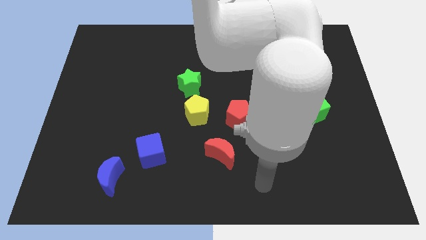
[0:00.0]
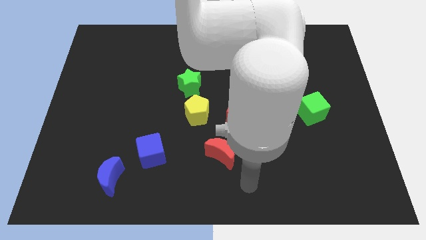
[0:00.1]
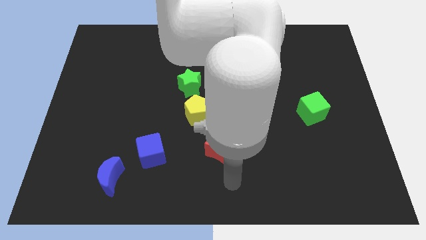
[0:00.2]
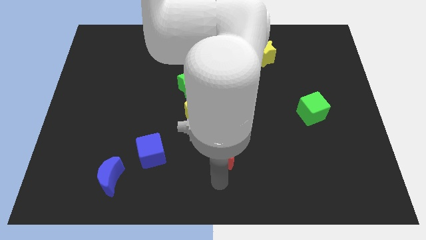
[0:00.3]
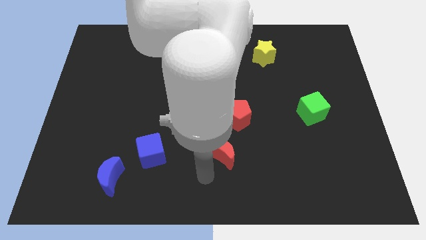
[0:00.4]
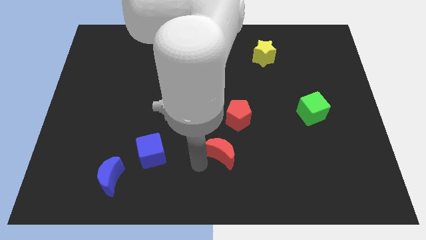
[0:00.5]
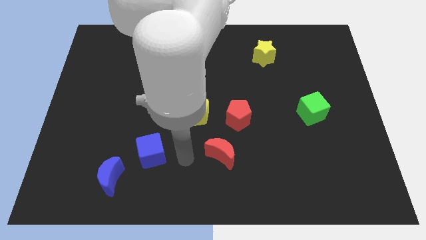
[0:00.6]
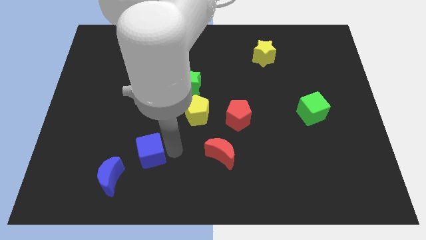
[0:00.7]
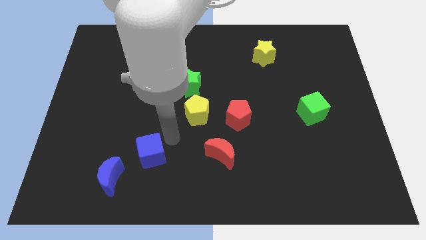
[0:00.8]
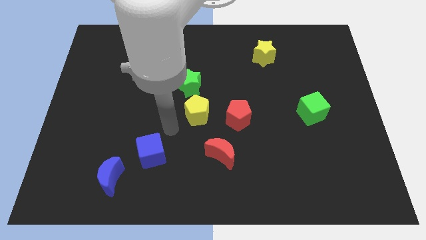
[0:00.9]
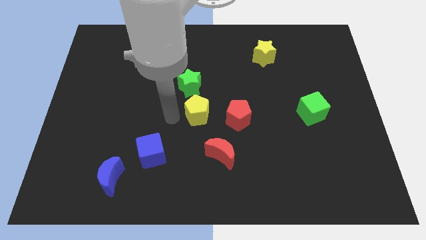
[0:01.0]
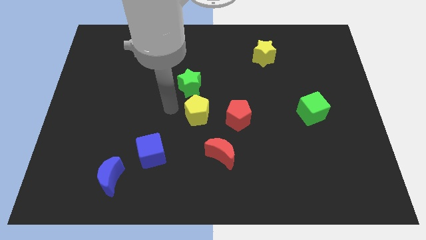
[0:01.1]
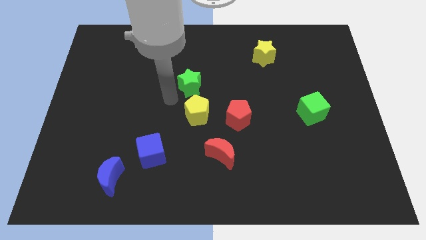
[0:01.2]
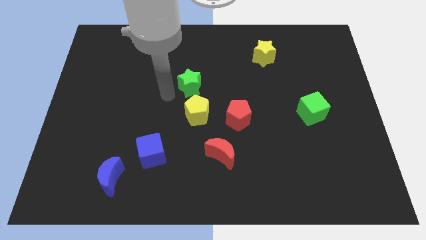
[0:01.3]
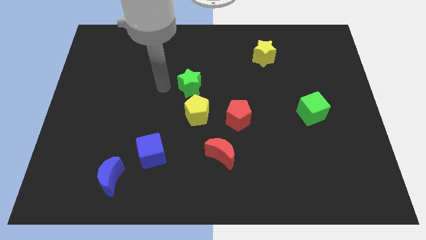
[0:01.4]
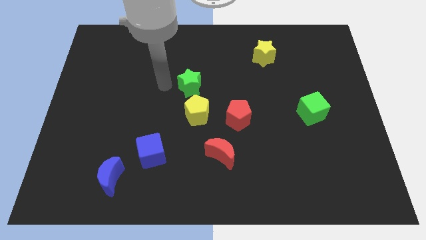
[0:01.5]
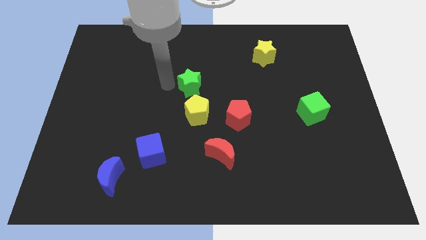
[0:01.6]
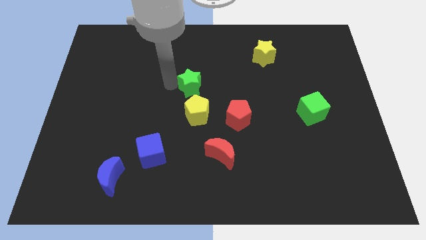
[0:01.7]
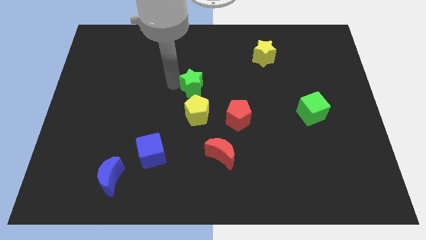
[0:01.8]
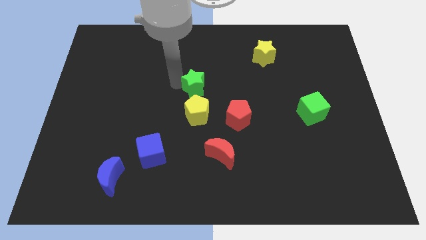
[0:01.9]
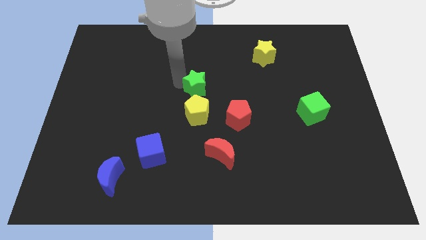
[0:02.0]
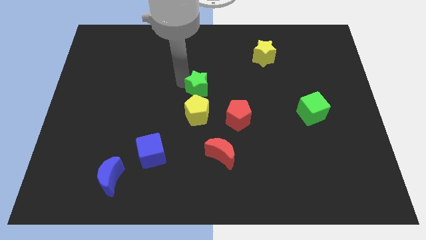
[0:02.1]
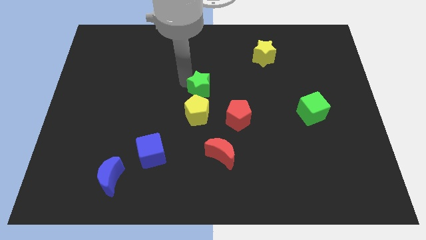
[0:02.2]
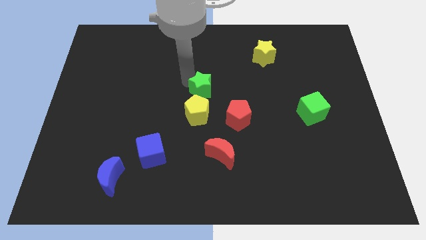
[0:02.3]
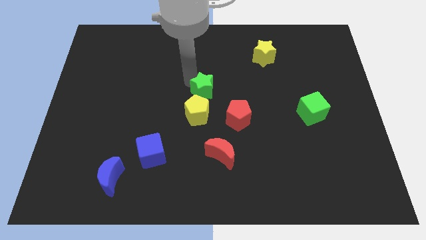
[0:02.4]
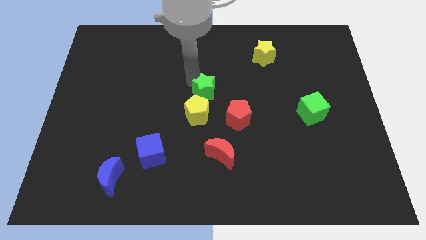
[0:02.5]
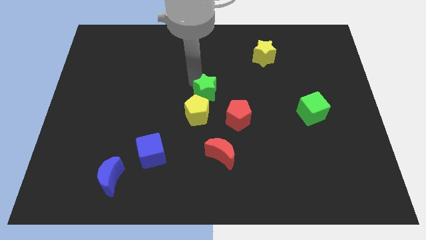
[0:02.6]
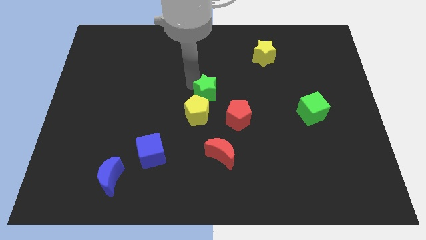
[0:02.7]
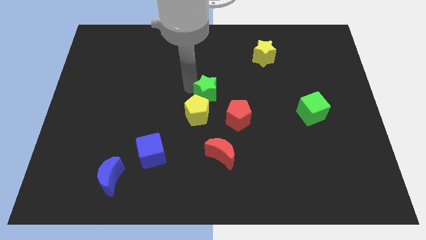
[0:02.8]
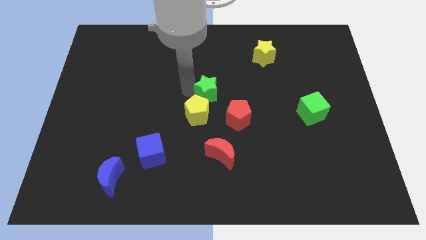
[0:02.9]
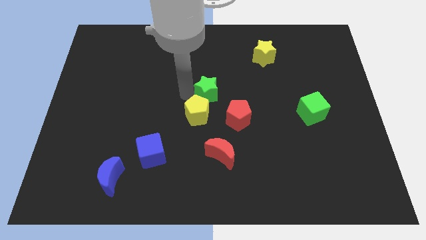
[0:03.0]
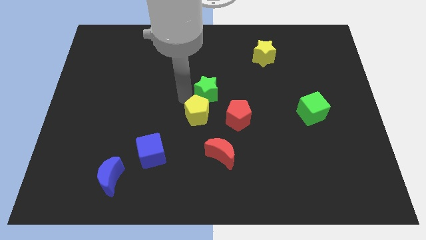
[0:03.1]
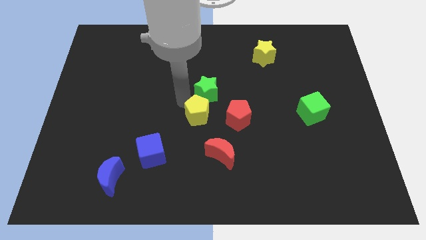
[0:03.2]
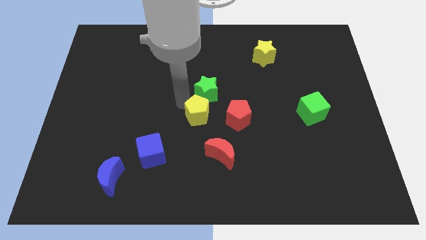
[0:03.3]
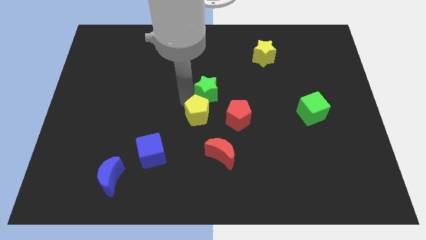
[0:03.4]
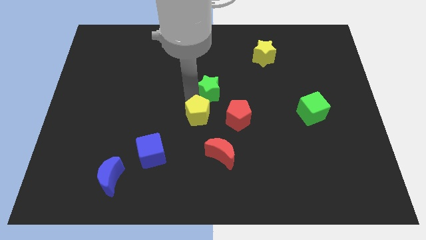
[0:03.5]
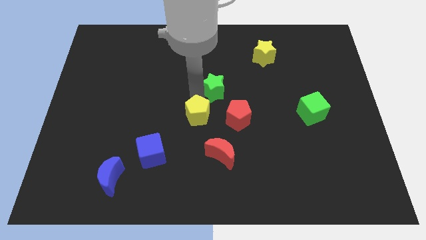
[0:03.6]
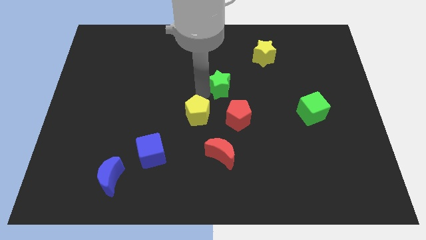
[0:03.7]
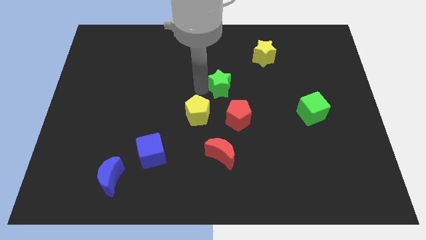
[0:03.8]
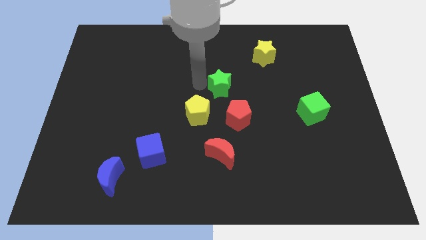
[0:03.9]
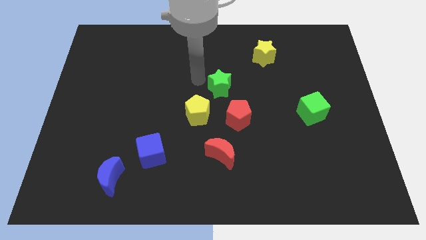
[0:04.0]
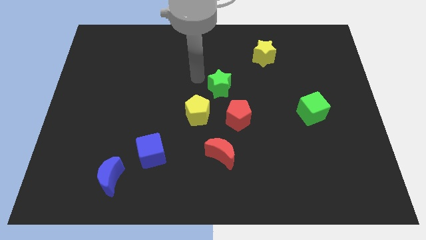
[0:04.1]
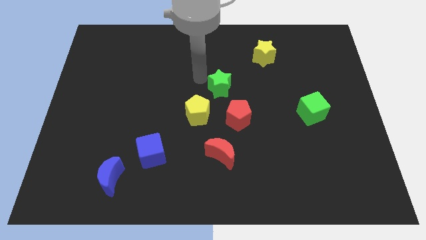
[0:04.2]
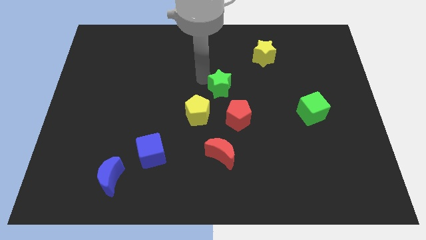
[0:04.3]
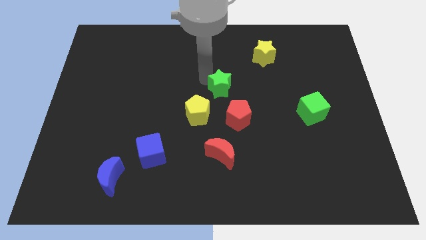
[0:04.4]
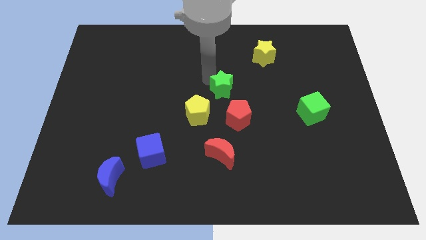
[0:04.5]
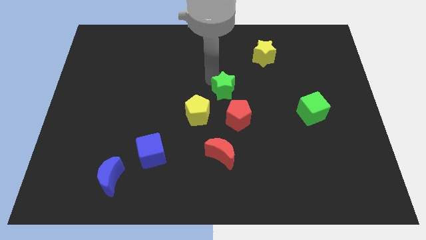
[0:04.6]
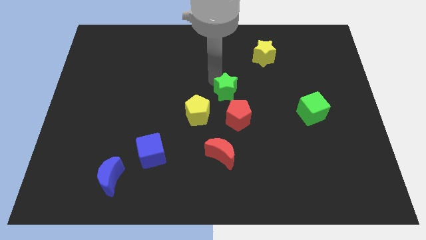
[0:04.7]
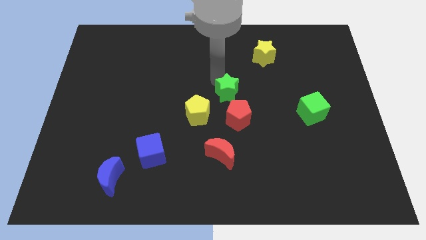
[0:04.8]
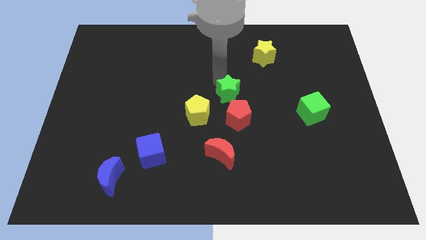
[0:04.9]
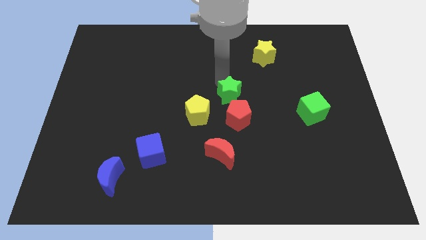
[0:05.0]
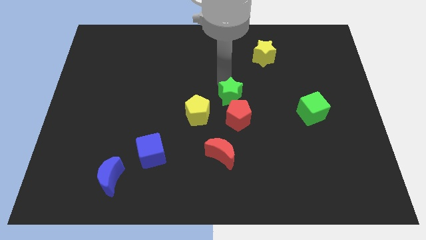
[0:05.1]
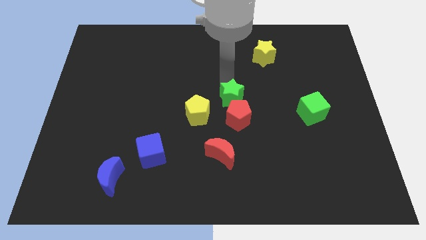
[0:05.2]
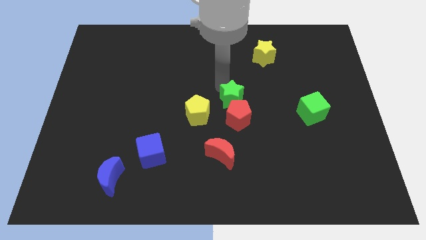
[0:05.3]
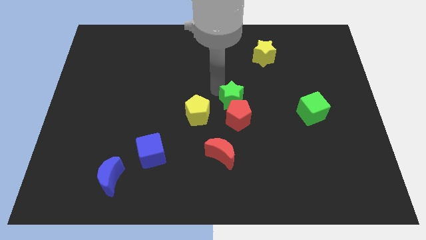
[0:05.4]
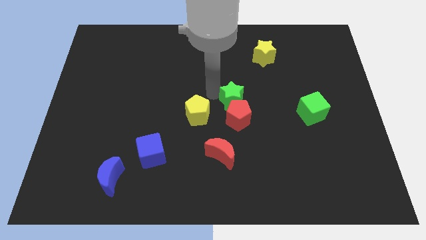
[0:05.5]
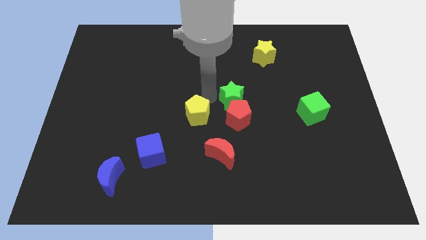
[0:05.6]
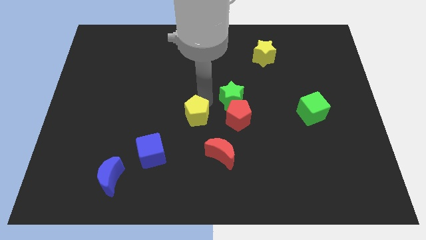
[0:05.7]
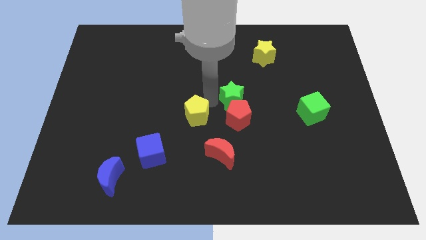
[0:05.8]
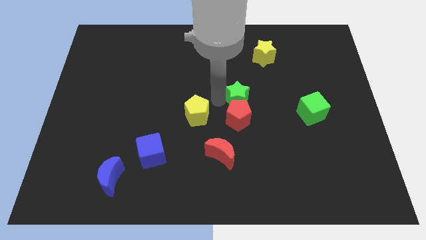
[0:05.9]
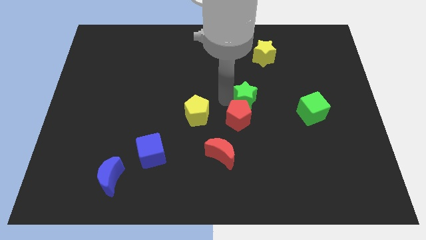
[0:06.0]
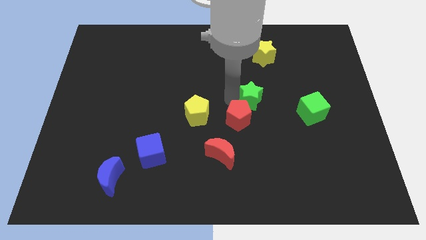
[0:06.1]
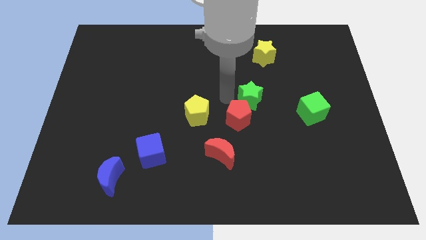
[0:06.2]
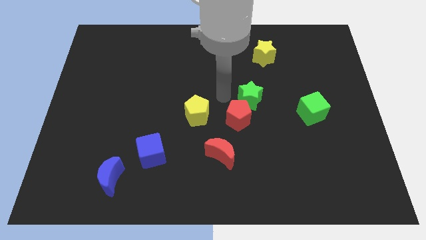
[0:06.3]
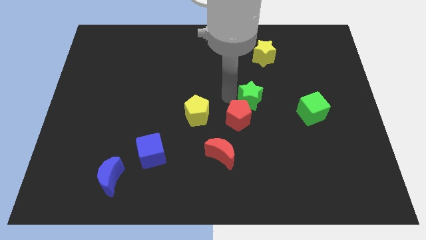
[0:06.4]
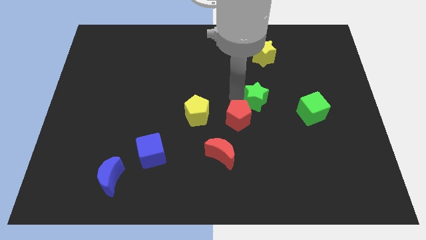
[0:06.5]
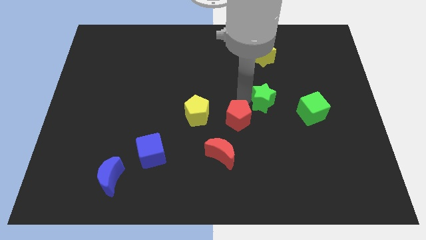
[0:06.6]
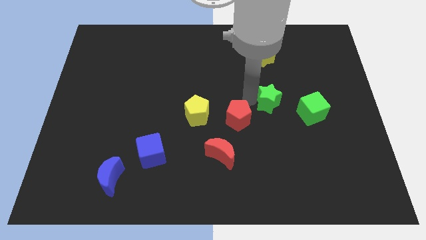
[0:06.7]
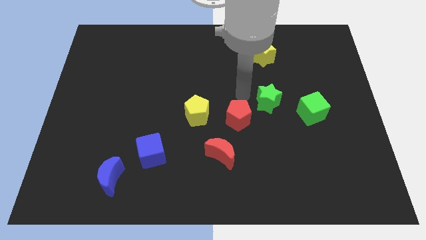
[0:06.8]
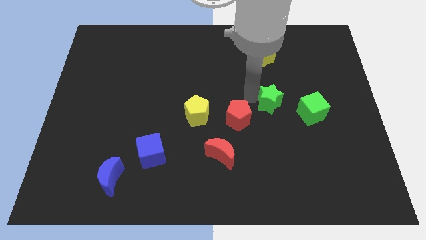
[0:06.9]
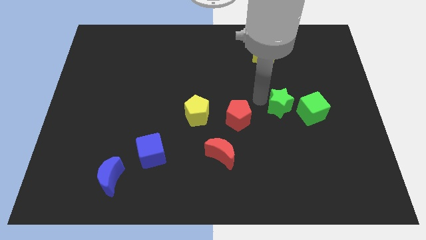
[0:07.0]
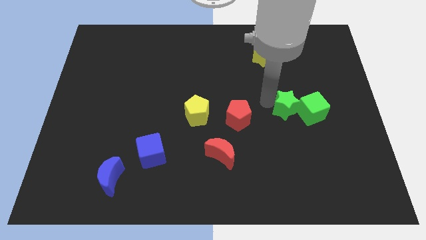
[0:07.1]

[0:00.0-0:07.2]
slide the green star next to the green cube
